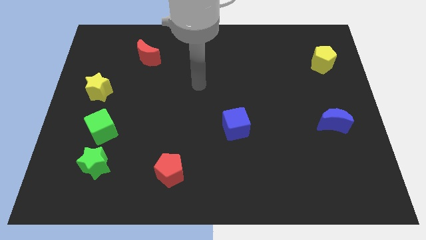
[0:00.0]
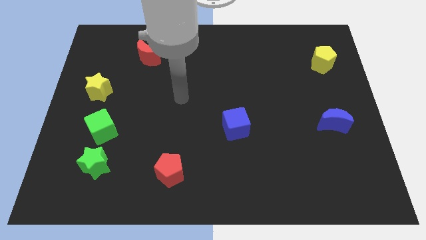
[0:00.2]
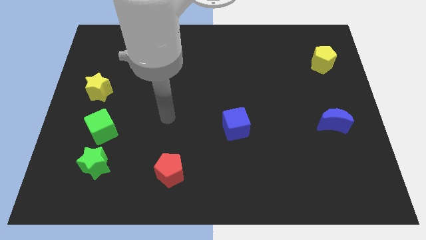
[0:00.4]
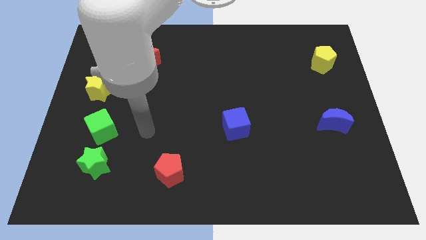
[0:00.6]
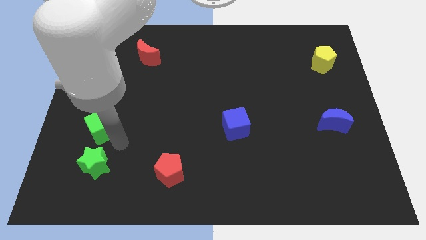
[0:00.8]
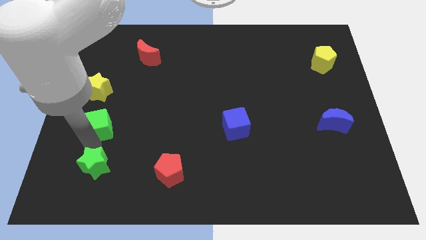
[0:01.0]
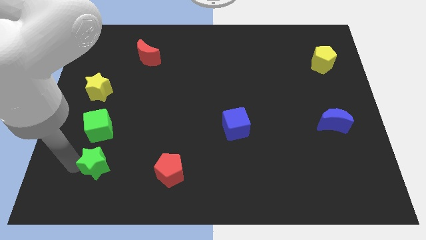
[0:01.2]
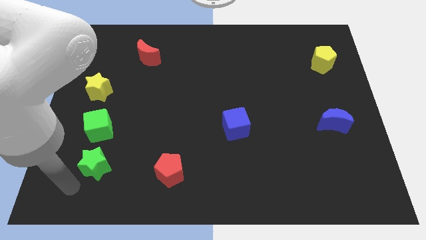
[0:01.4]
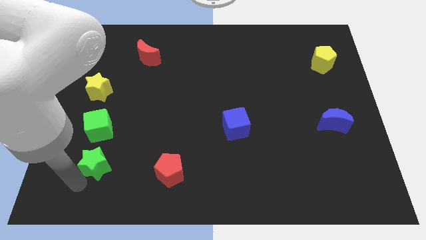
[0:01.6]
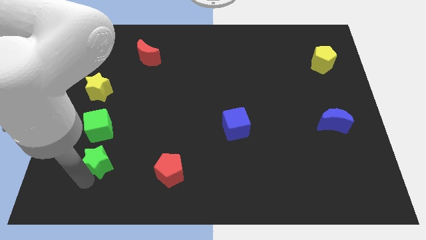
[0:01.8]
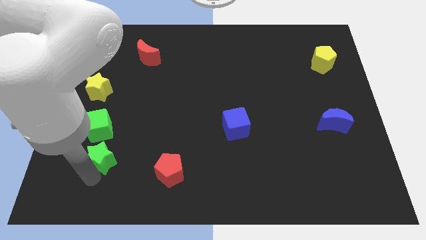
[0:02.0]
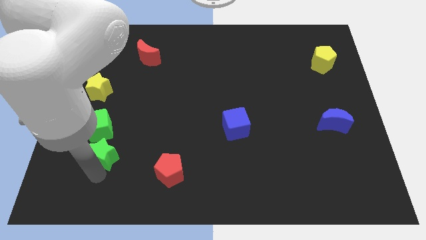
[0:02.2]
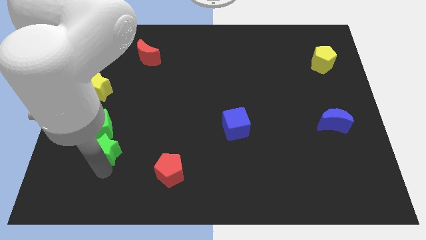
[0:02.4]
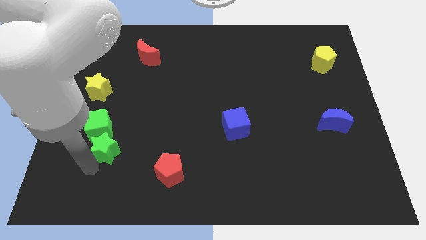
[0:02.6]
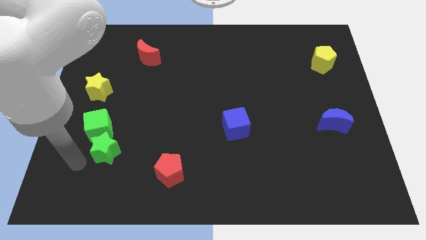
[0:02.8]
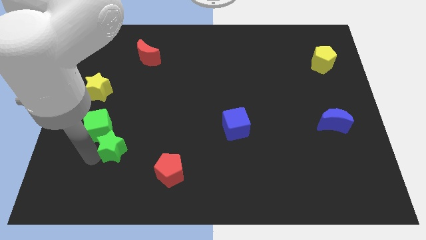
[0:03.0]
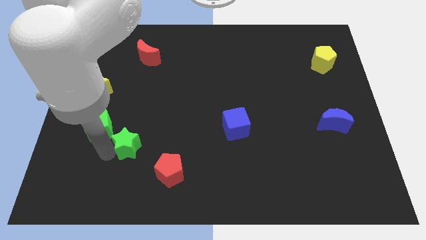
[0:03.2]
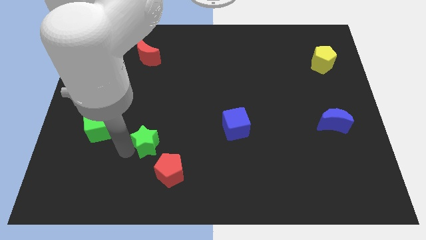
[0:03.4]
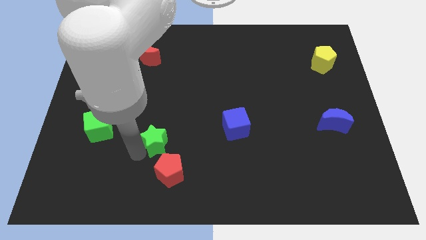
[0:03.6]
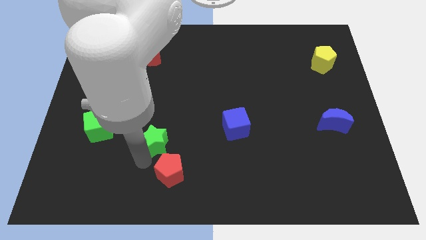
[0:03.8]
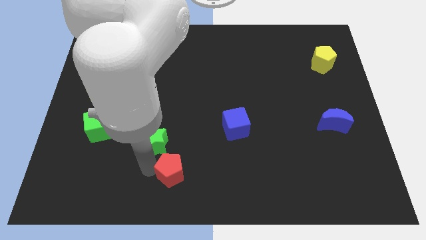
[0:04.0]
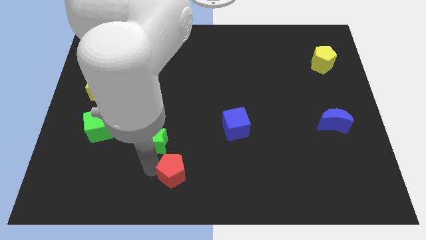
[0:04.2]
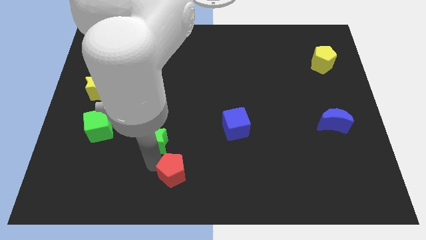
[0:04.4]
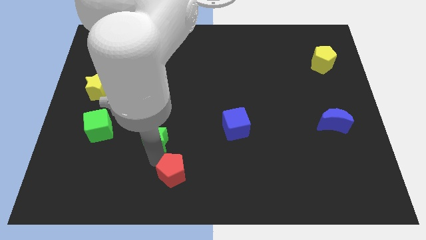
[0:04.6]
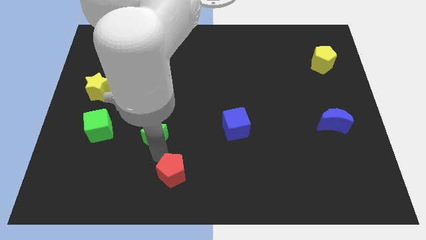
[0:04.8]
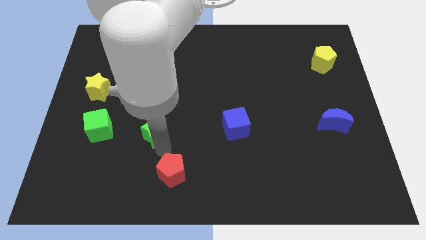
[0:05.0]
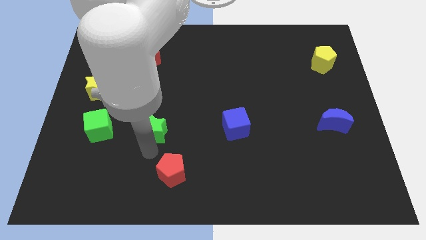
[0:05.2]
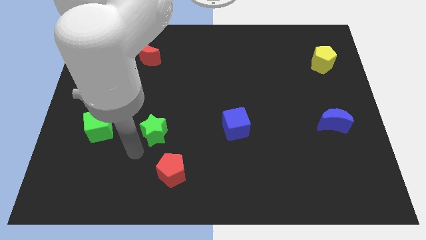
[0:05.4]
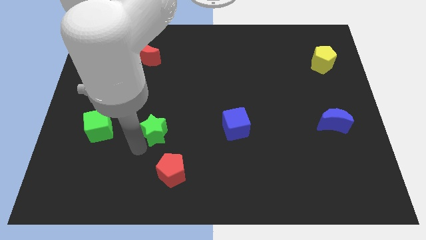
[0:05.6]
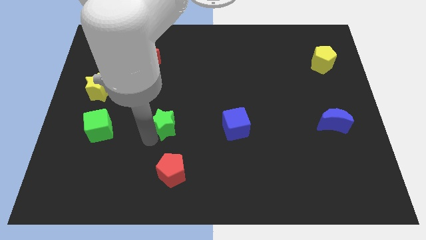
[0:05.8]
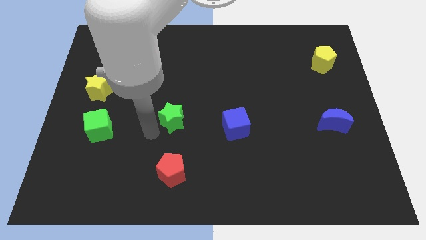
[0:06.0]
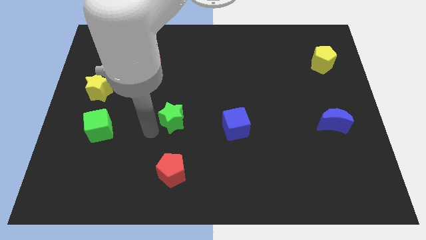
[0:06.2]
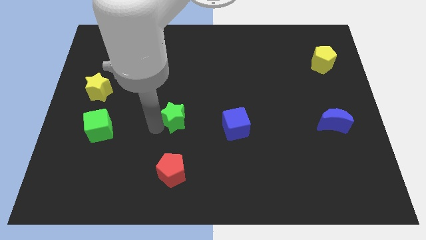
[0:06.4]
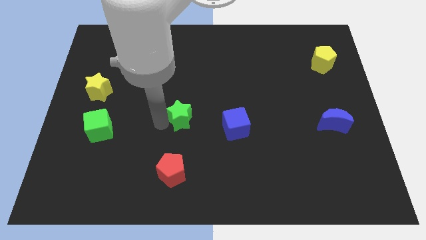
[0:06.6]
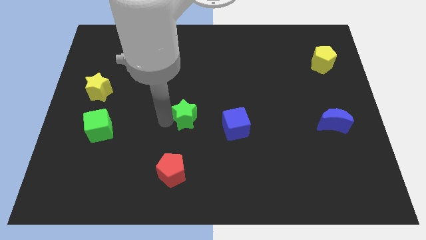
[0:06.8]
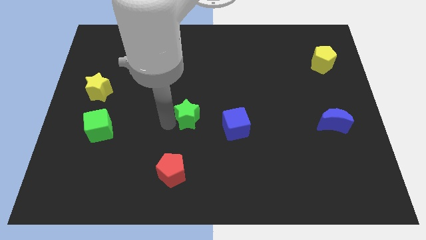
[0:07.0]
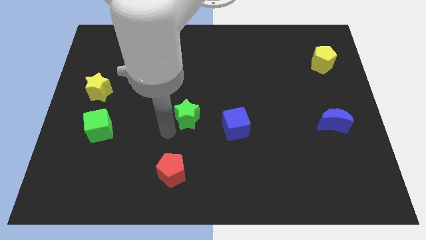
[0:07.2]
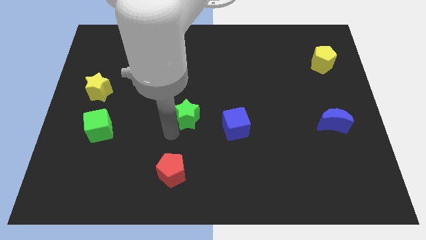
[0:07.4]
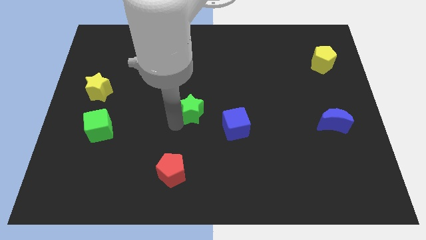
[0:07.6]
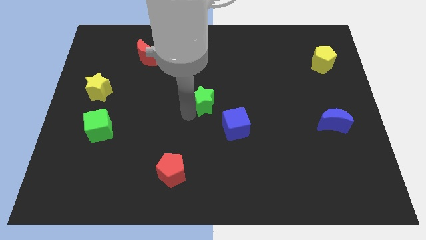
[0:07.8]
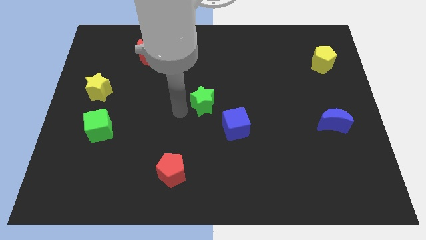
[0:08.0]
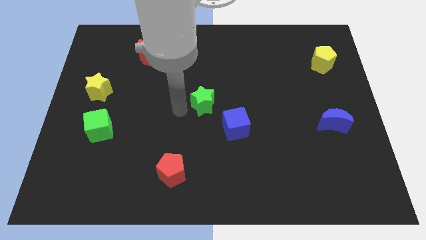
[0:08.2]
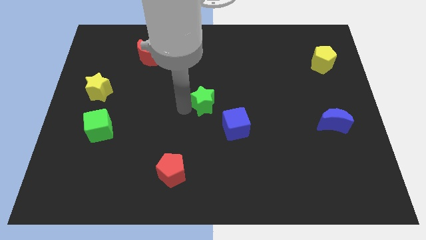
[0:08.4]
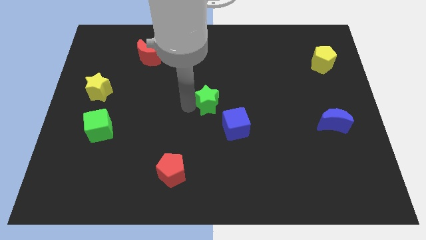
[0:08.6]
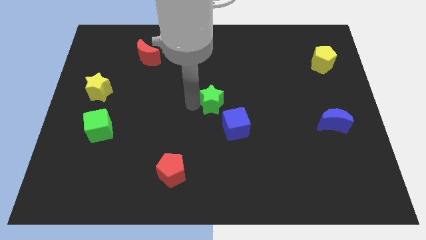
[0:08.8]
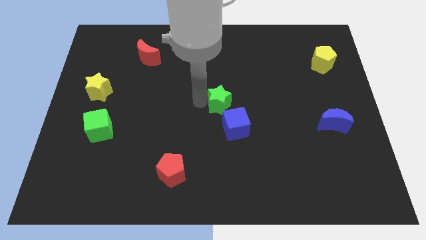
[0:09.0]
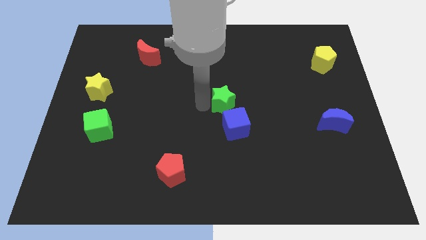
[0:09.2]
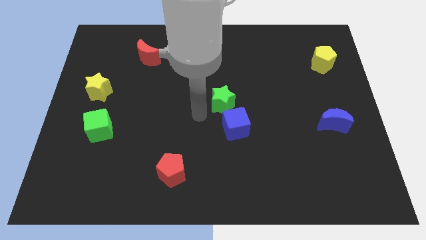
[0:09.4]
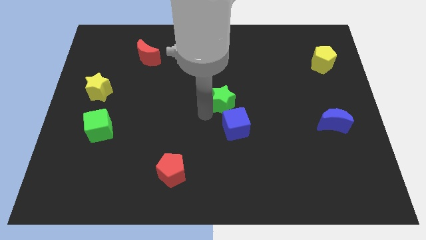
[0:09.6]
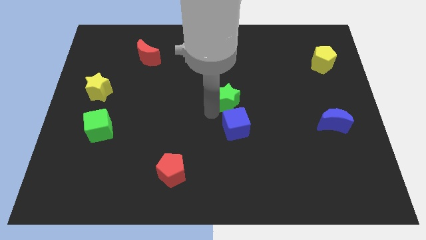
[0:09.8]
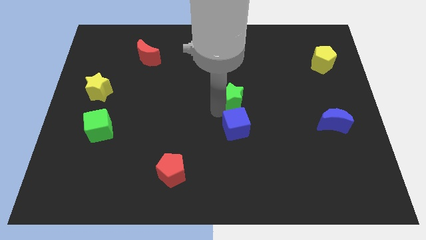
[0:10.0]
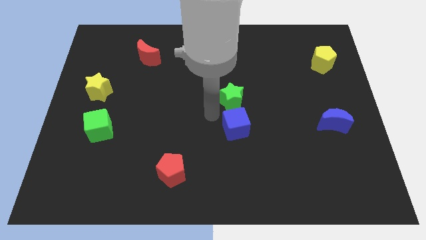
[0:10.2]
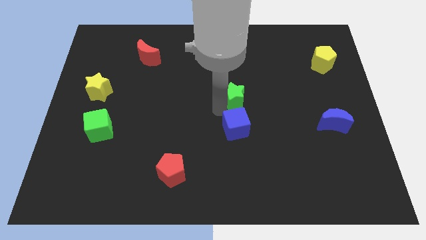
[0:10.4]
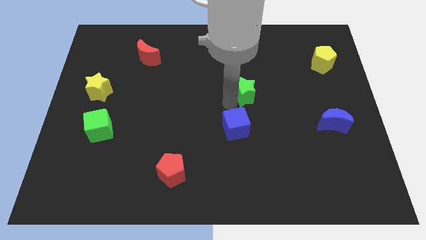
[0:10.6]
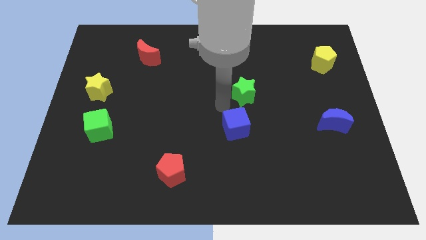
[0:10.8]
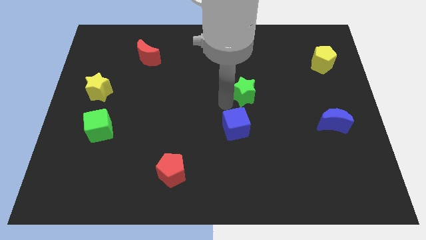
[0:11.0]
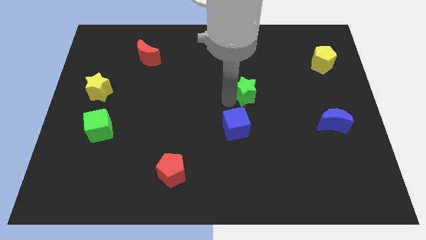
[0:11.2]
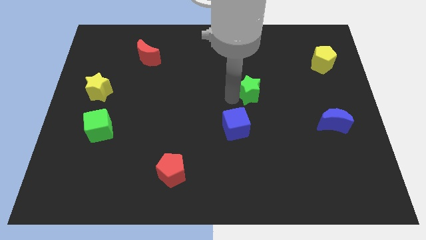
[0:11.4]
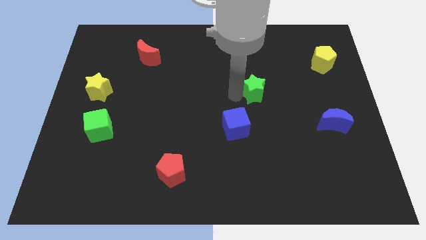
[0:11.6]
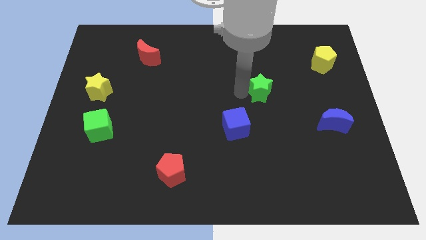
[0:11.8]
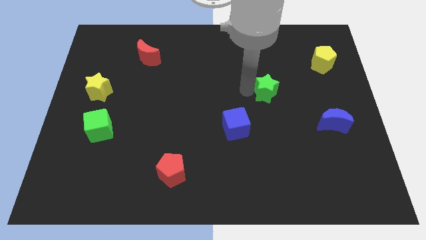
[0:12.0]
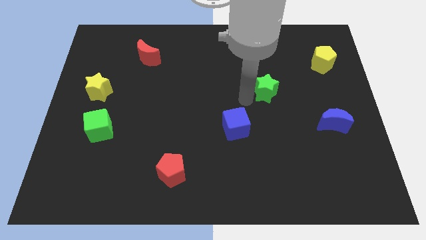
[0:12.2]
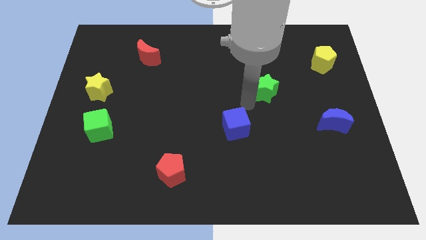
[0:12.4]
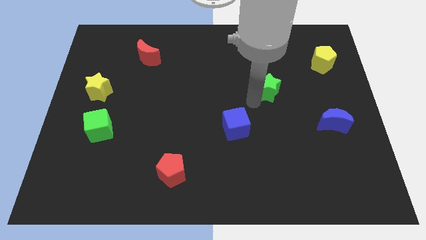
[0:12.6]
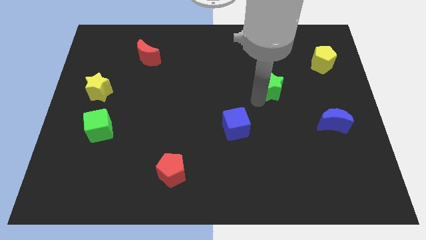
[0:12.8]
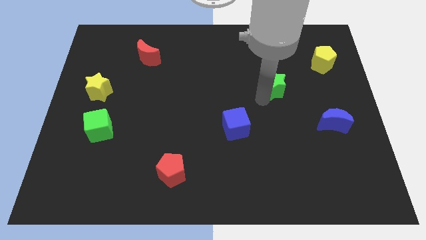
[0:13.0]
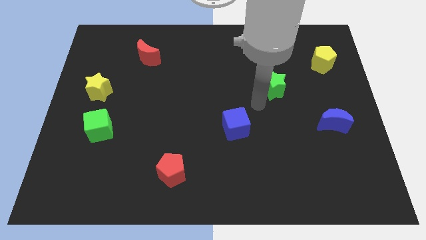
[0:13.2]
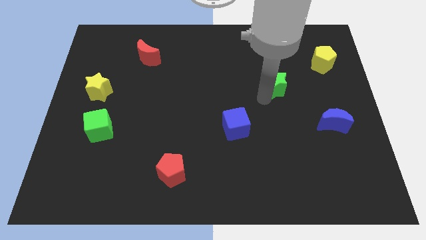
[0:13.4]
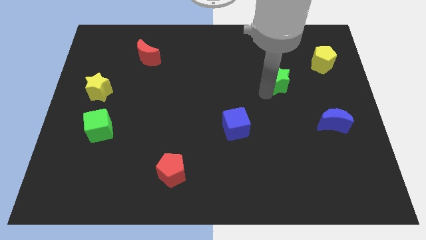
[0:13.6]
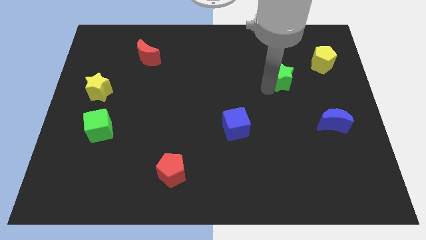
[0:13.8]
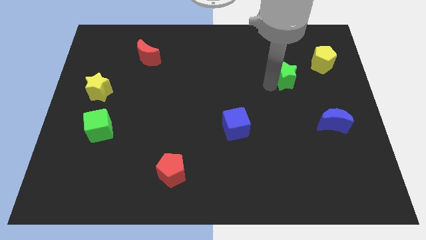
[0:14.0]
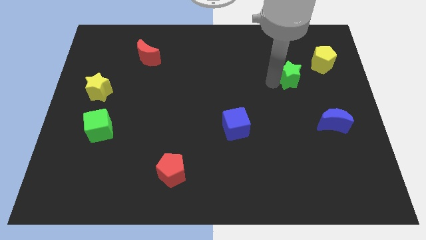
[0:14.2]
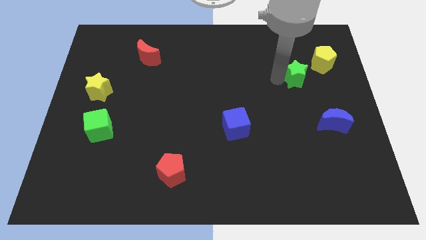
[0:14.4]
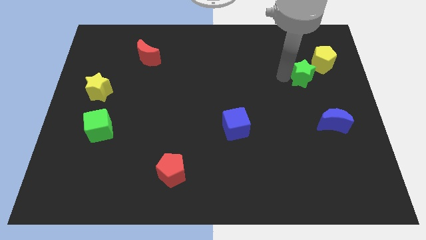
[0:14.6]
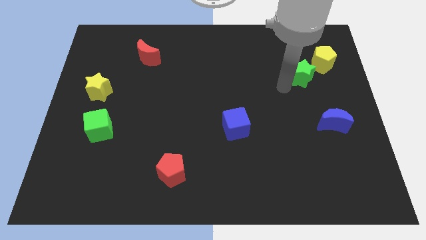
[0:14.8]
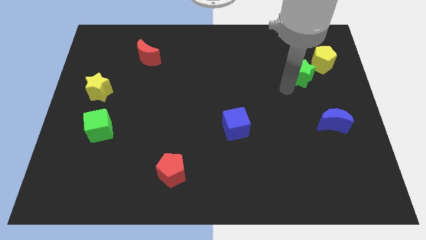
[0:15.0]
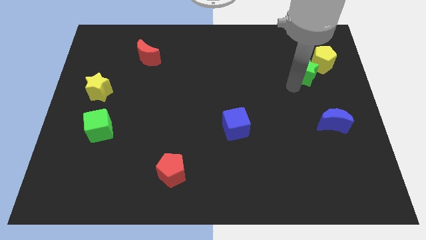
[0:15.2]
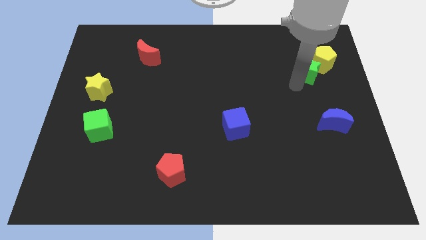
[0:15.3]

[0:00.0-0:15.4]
put the green star close to the yellow pentagon
